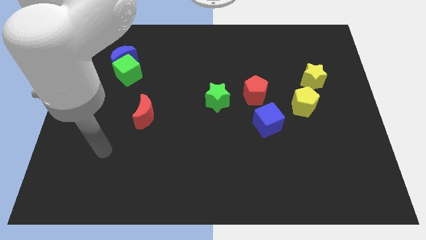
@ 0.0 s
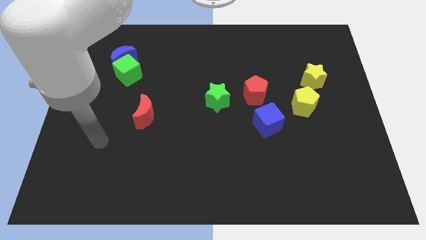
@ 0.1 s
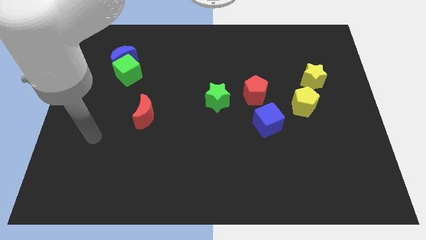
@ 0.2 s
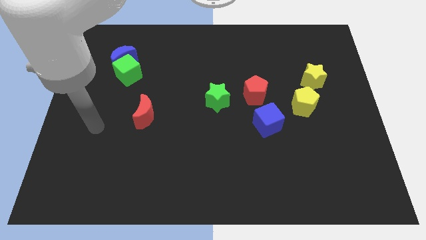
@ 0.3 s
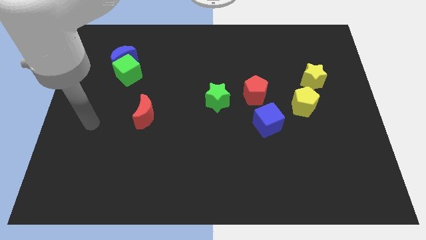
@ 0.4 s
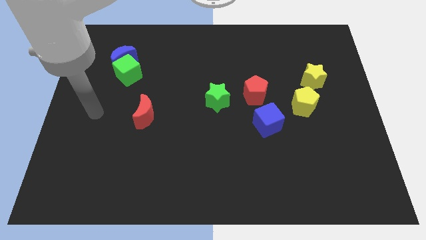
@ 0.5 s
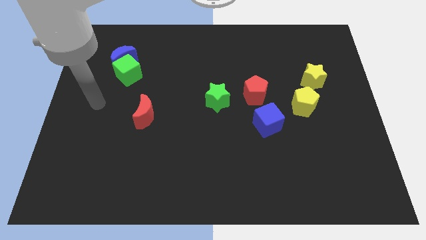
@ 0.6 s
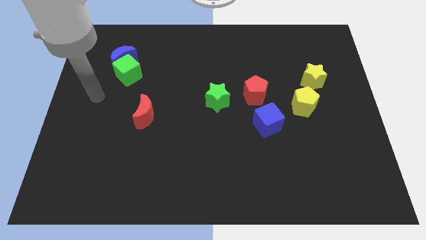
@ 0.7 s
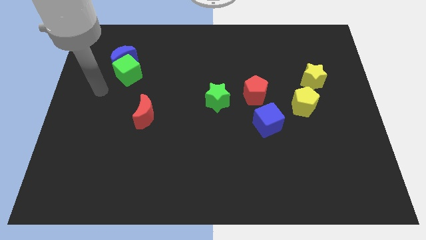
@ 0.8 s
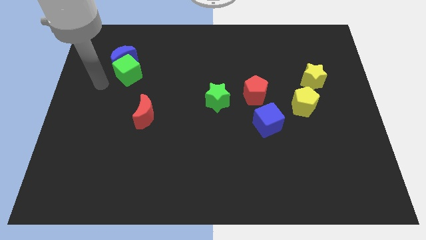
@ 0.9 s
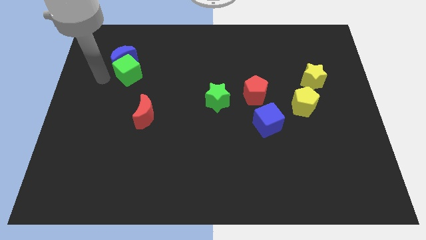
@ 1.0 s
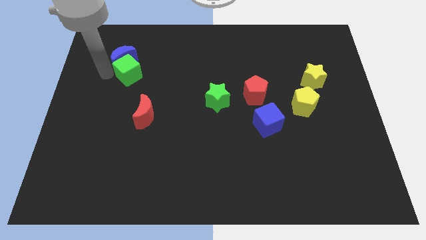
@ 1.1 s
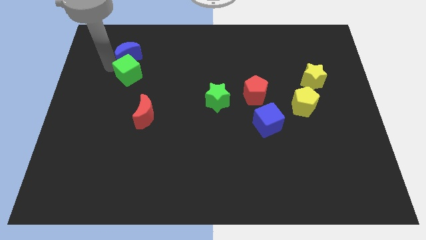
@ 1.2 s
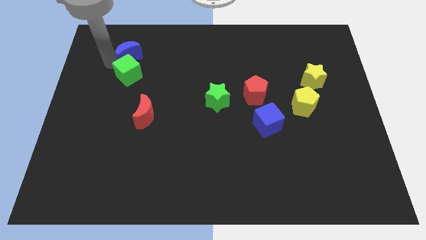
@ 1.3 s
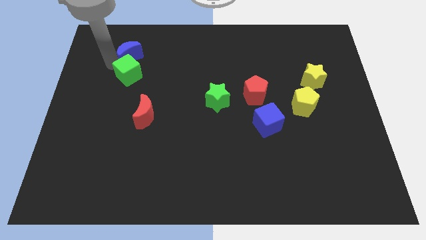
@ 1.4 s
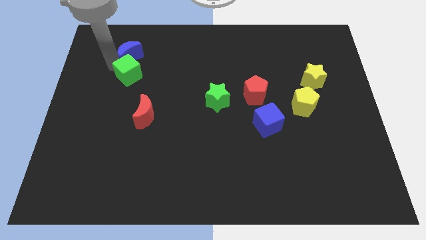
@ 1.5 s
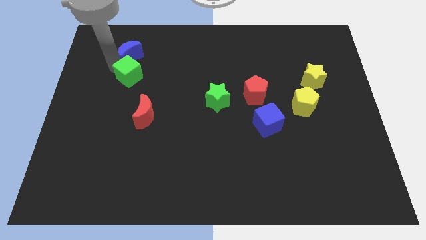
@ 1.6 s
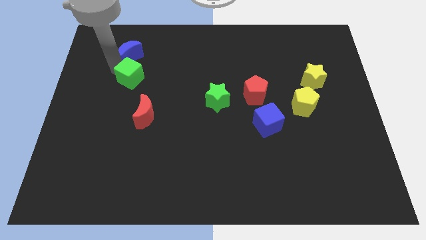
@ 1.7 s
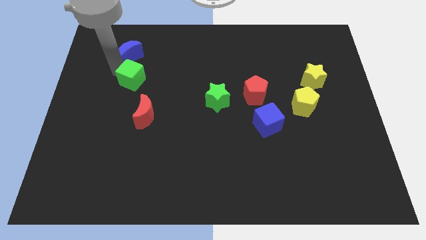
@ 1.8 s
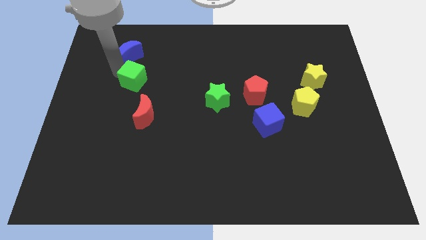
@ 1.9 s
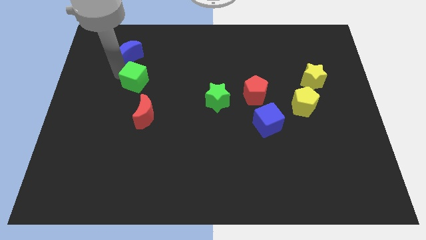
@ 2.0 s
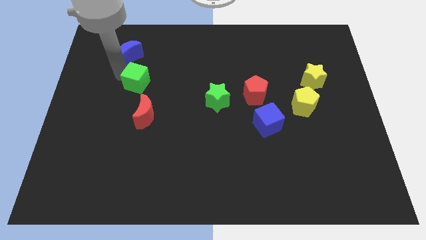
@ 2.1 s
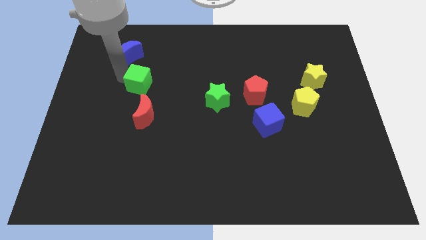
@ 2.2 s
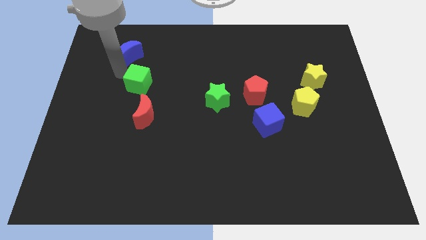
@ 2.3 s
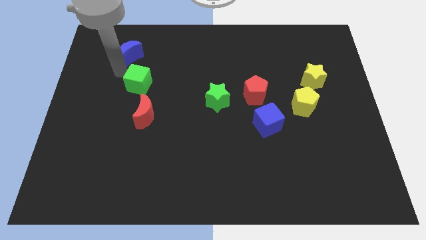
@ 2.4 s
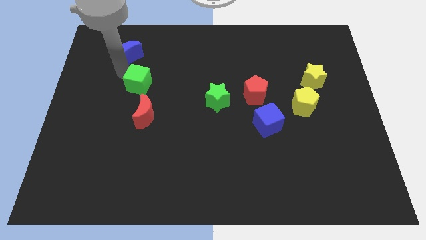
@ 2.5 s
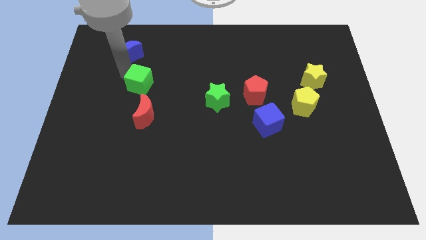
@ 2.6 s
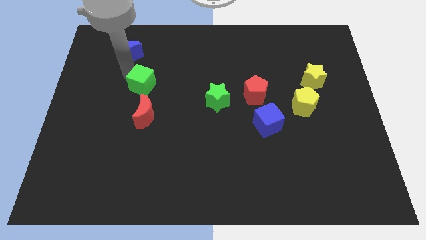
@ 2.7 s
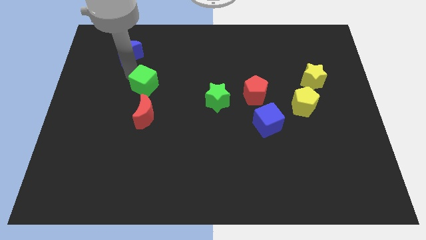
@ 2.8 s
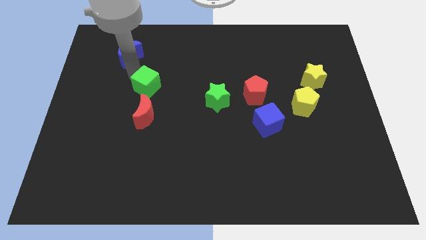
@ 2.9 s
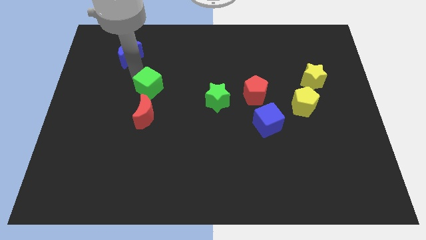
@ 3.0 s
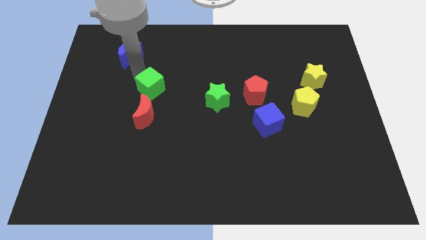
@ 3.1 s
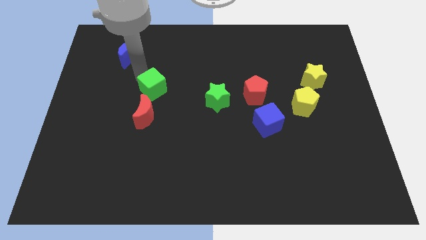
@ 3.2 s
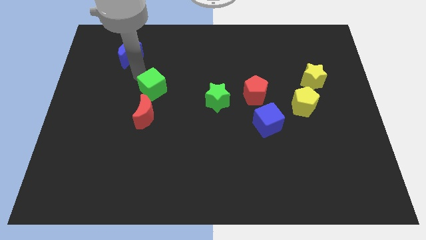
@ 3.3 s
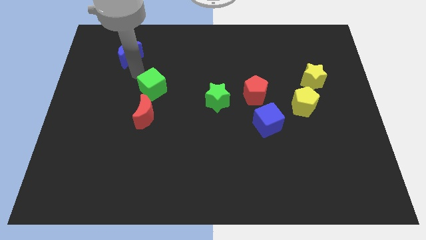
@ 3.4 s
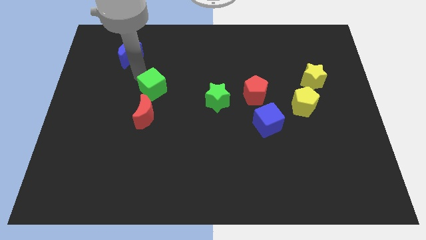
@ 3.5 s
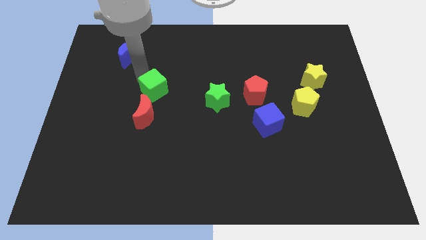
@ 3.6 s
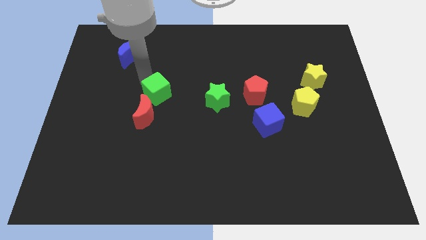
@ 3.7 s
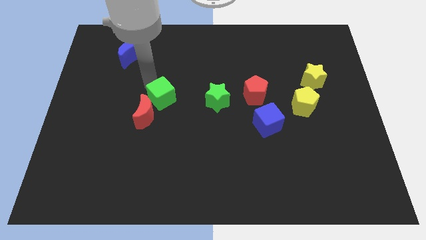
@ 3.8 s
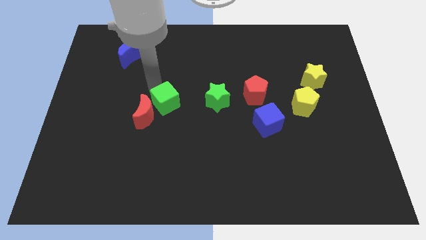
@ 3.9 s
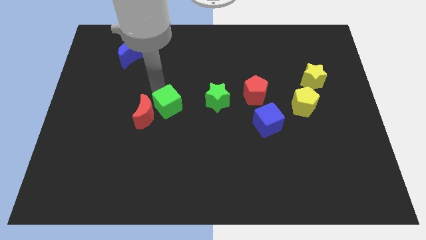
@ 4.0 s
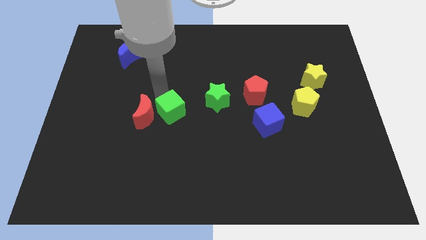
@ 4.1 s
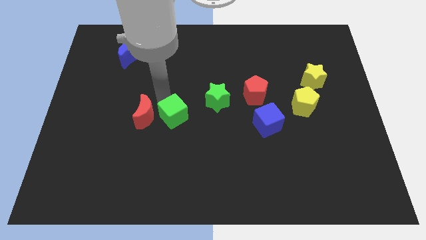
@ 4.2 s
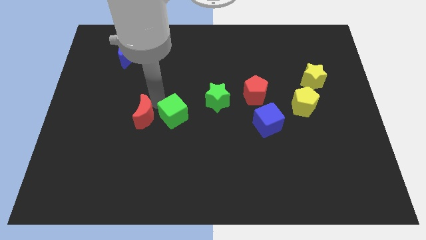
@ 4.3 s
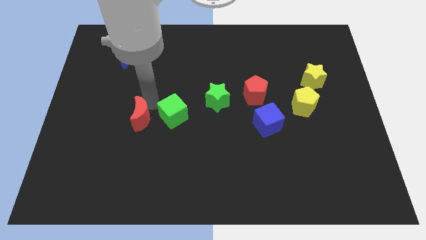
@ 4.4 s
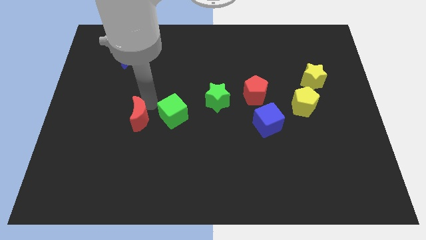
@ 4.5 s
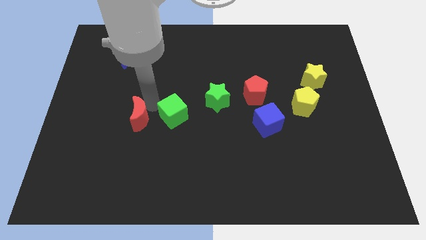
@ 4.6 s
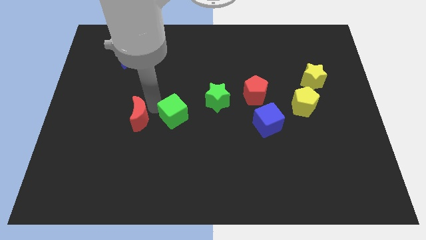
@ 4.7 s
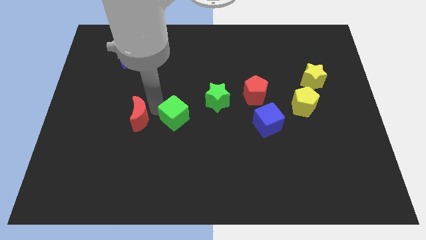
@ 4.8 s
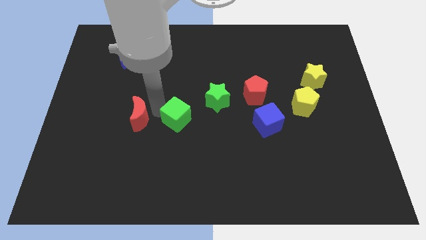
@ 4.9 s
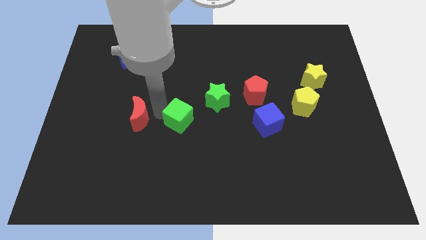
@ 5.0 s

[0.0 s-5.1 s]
push the green cube downwards and right diagonally

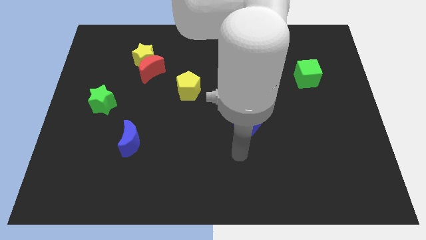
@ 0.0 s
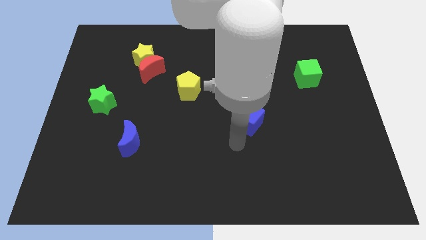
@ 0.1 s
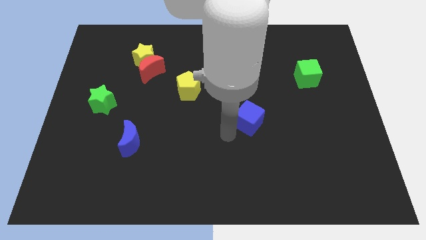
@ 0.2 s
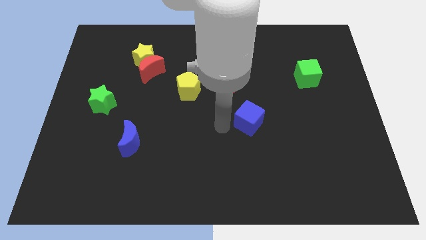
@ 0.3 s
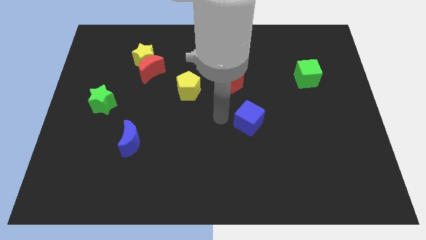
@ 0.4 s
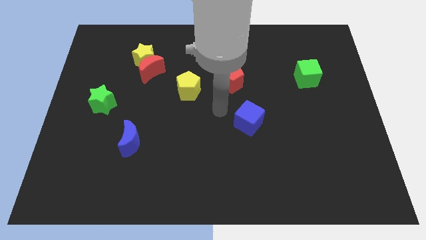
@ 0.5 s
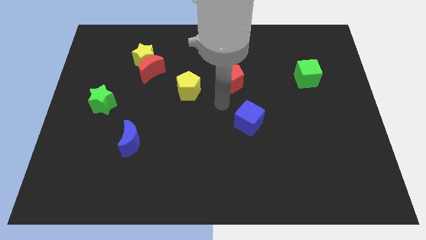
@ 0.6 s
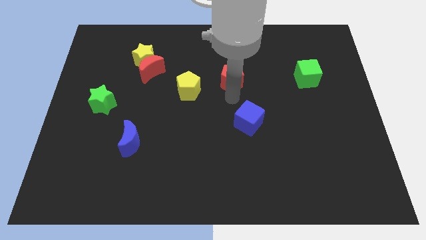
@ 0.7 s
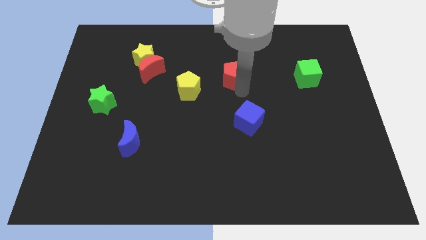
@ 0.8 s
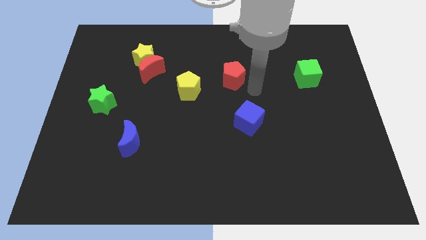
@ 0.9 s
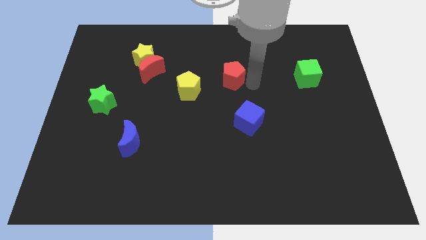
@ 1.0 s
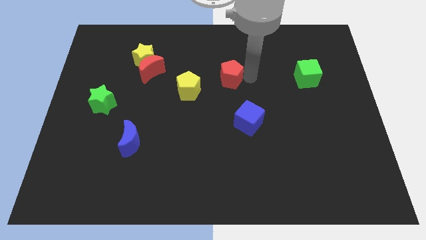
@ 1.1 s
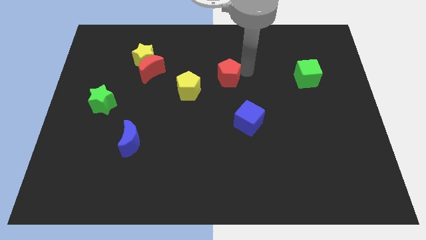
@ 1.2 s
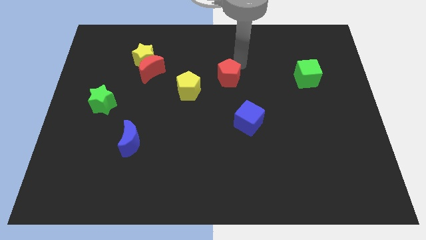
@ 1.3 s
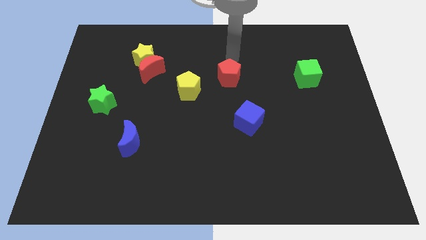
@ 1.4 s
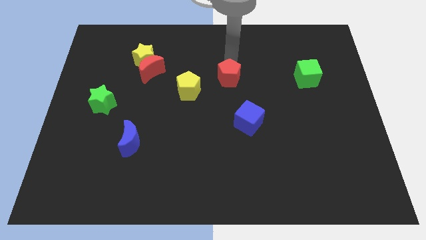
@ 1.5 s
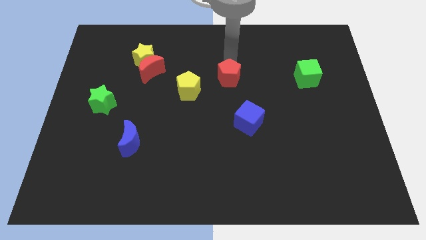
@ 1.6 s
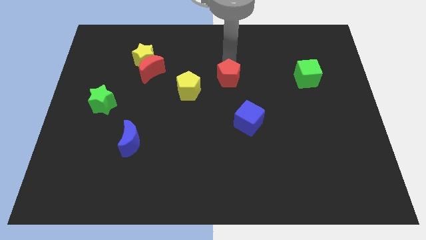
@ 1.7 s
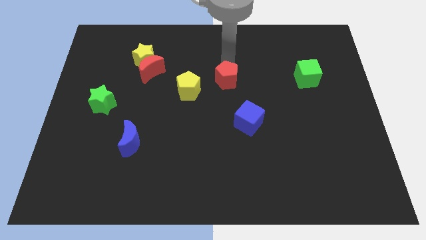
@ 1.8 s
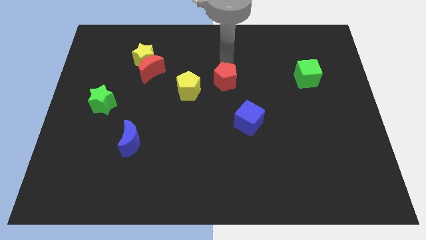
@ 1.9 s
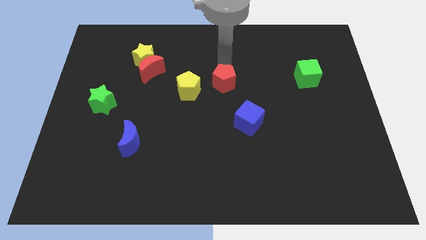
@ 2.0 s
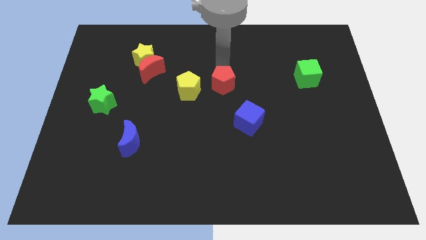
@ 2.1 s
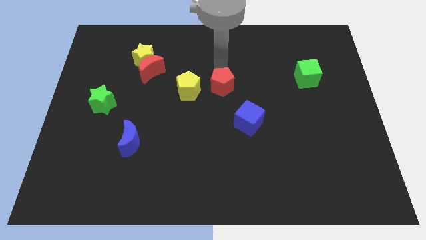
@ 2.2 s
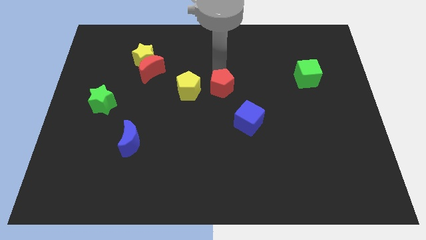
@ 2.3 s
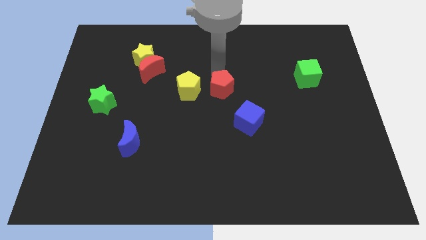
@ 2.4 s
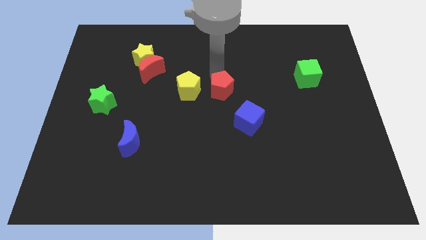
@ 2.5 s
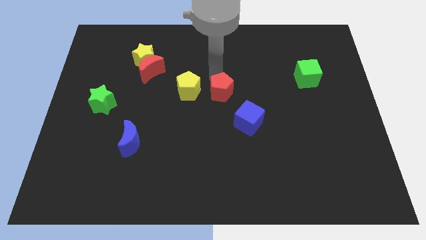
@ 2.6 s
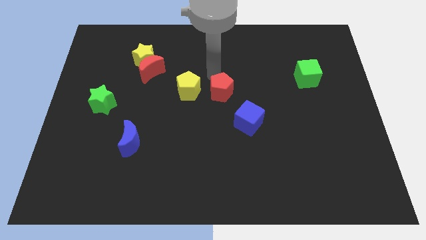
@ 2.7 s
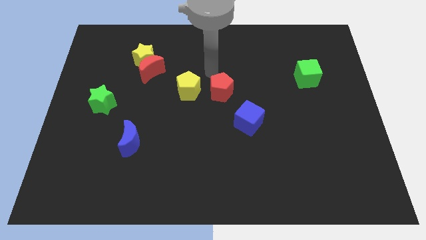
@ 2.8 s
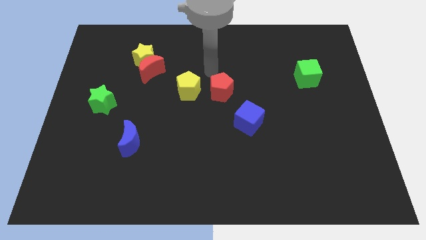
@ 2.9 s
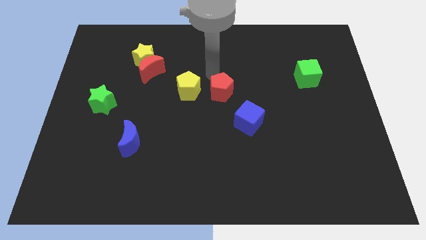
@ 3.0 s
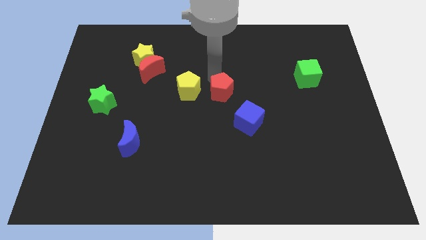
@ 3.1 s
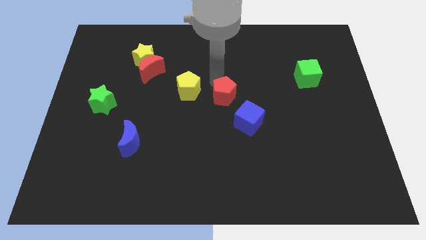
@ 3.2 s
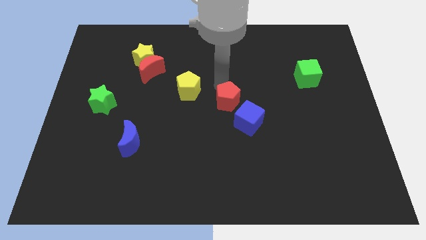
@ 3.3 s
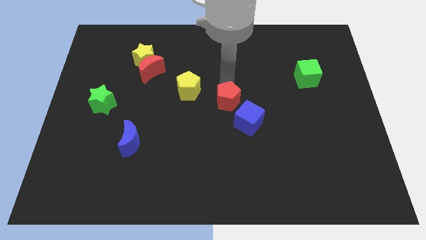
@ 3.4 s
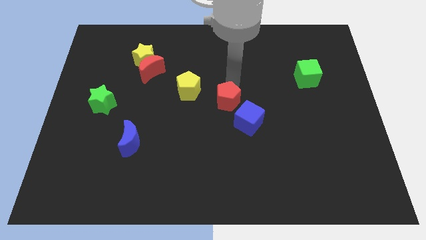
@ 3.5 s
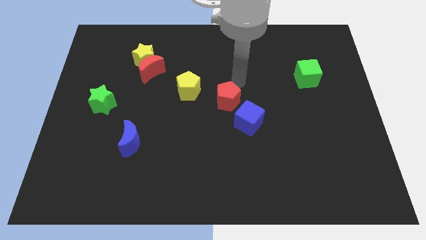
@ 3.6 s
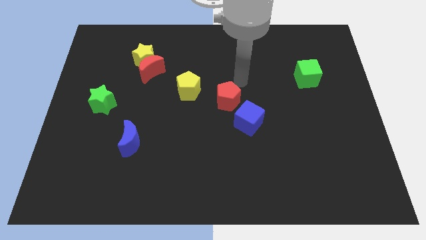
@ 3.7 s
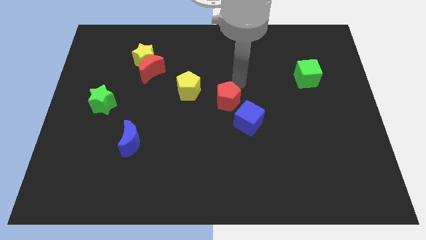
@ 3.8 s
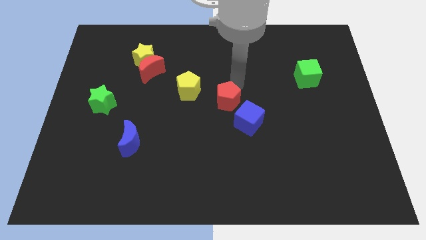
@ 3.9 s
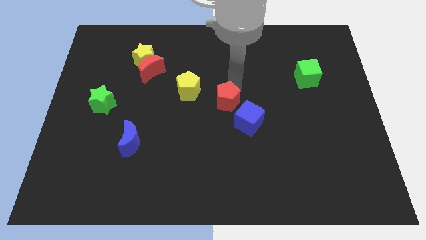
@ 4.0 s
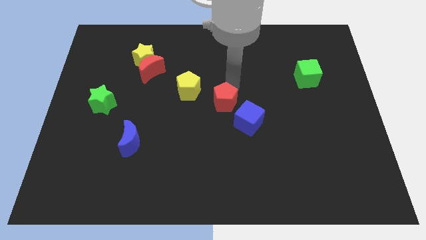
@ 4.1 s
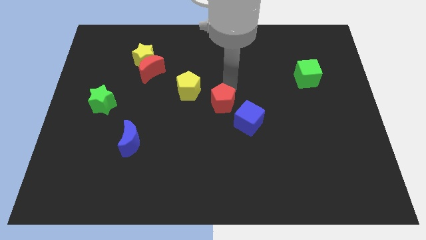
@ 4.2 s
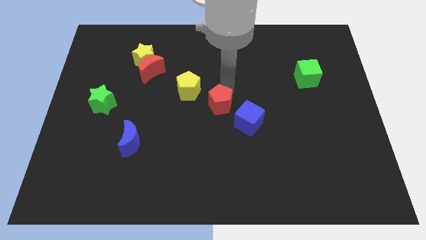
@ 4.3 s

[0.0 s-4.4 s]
move the red pentagon a little bit diagonally down and left
